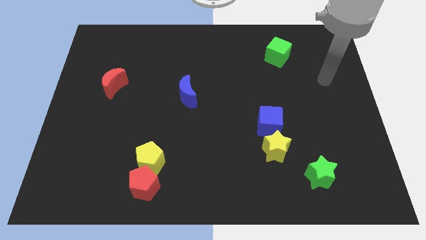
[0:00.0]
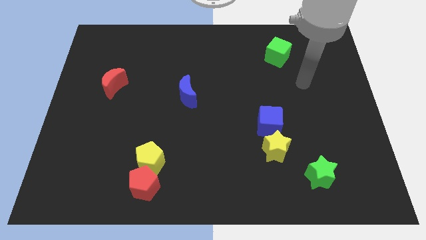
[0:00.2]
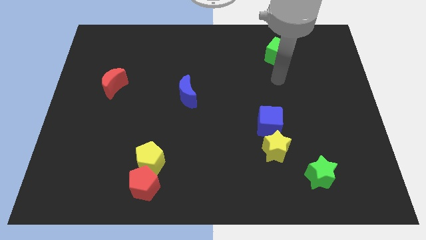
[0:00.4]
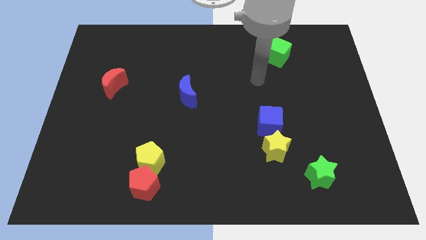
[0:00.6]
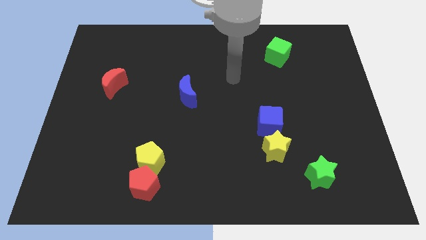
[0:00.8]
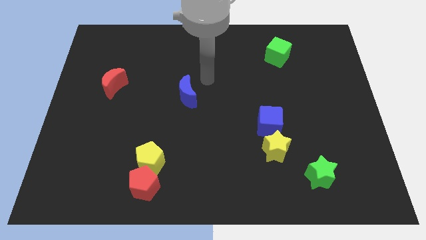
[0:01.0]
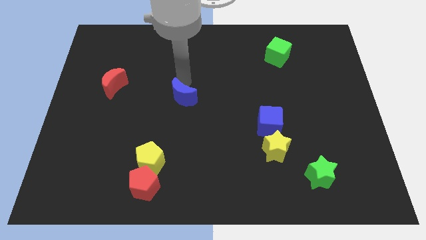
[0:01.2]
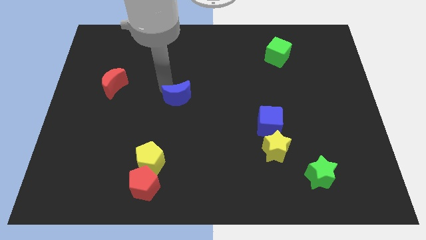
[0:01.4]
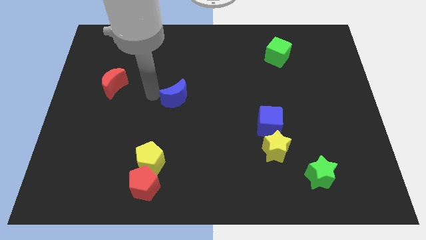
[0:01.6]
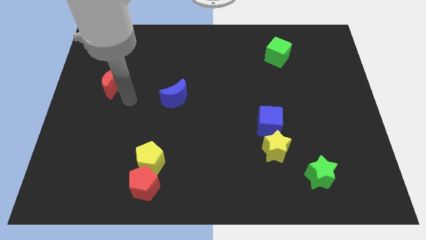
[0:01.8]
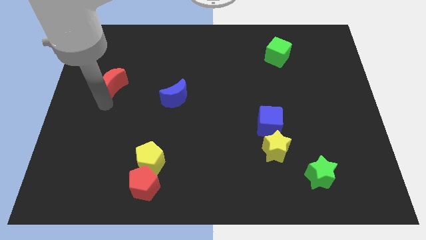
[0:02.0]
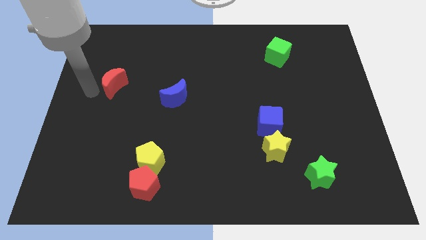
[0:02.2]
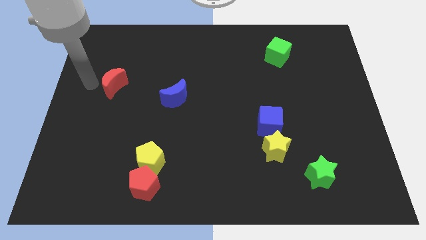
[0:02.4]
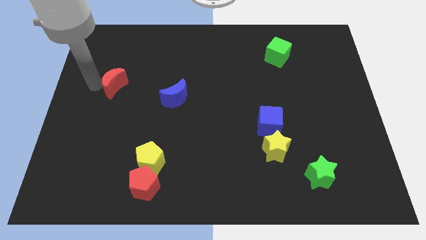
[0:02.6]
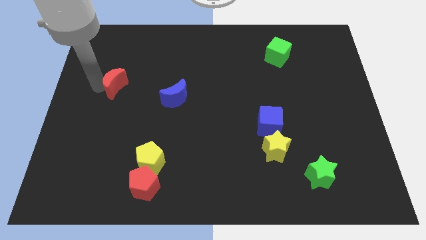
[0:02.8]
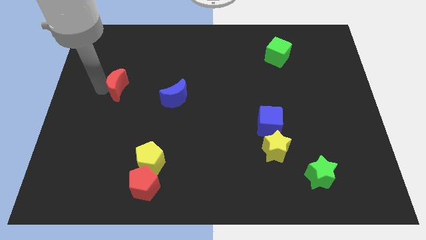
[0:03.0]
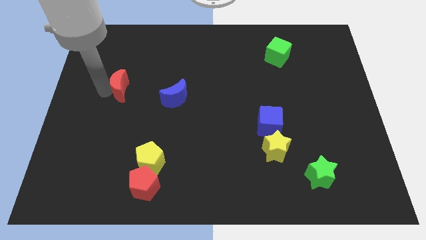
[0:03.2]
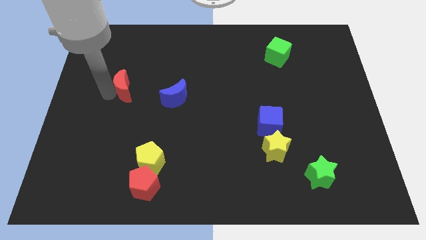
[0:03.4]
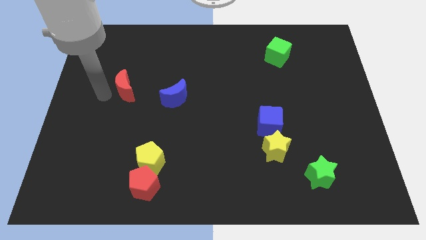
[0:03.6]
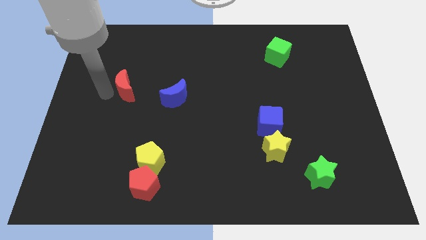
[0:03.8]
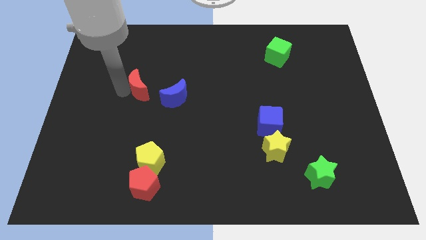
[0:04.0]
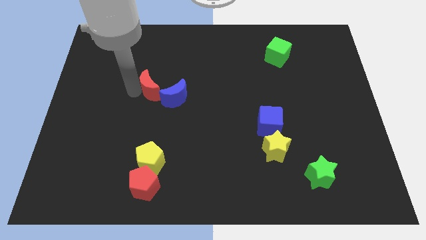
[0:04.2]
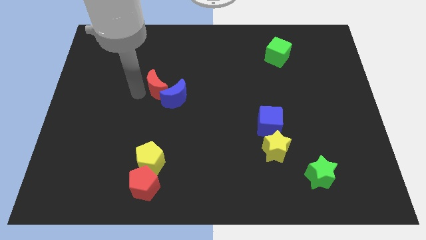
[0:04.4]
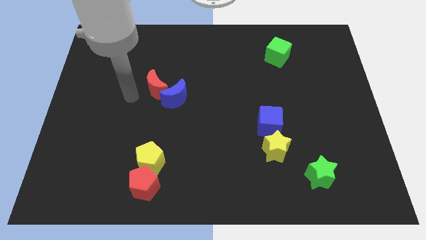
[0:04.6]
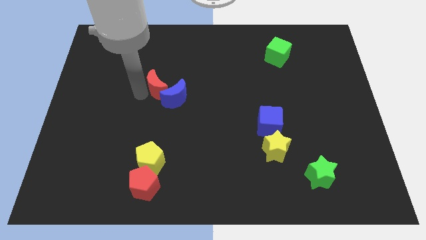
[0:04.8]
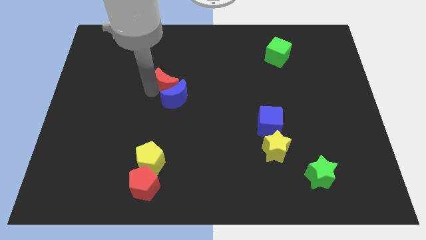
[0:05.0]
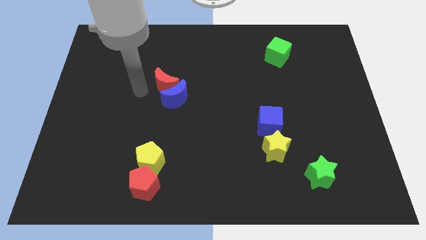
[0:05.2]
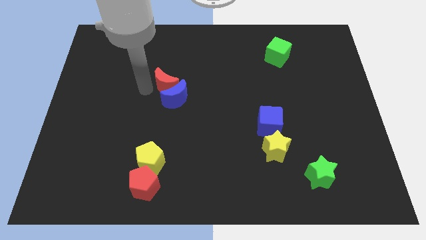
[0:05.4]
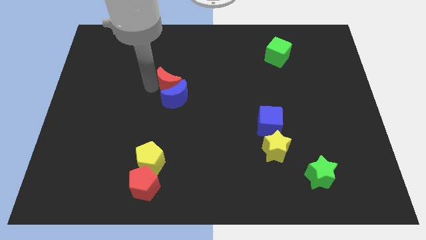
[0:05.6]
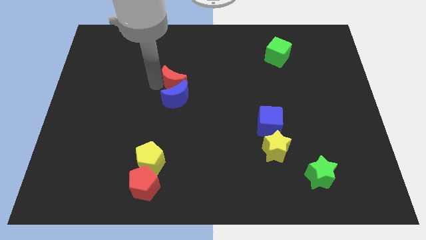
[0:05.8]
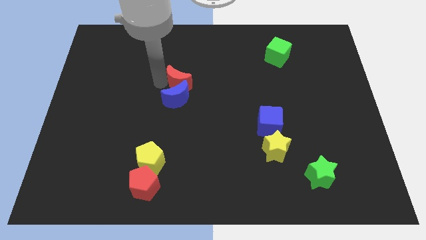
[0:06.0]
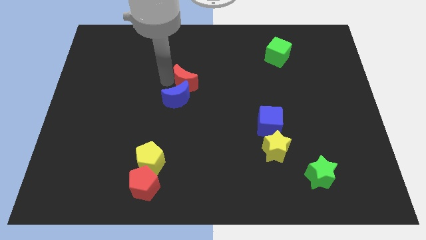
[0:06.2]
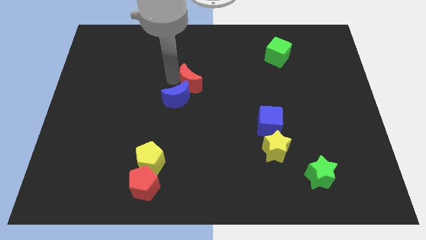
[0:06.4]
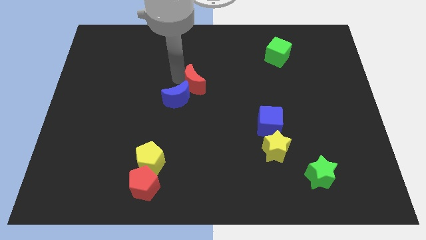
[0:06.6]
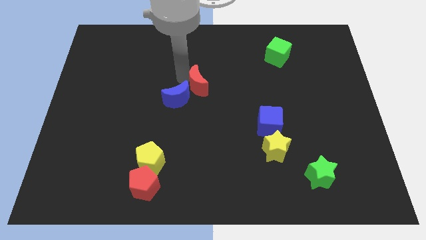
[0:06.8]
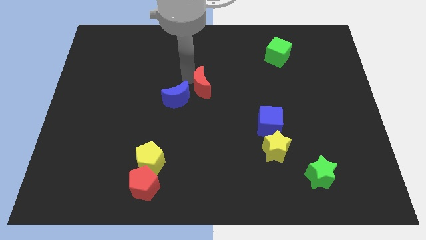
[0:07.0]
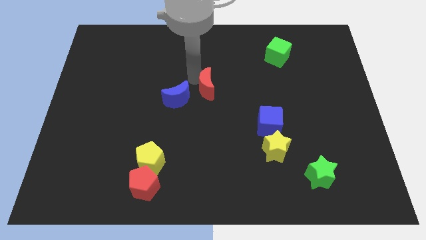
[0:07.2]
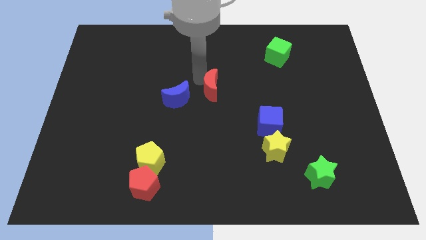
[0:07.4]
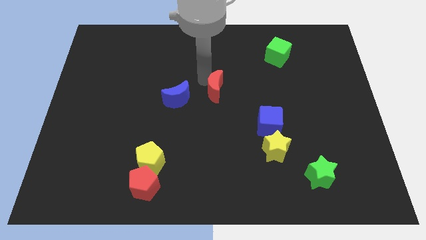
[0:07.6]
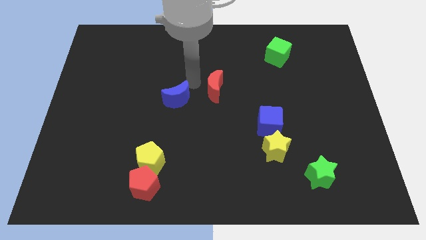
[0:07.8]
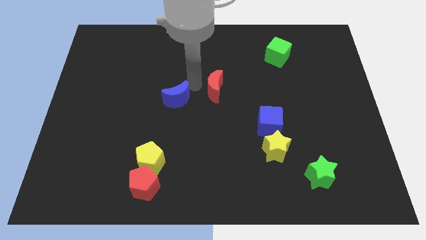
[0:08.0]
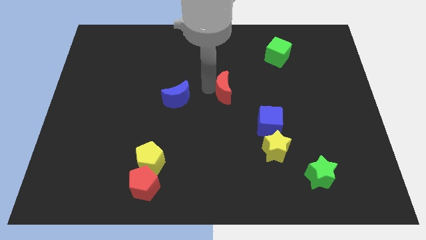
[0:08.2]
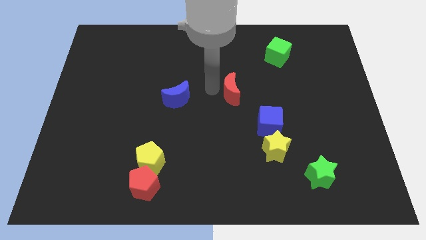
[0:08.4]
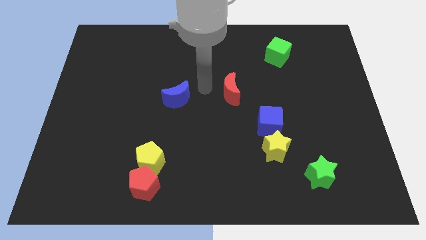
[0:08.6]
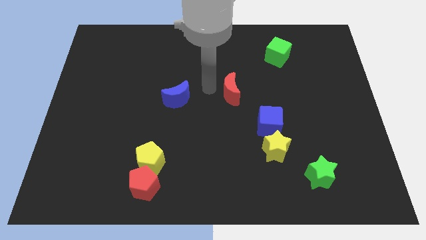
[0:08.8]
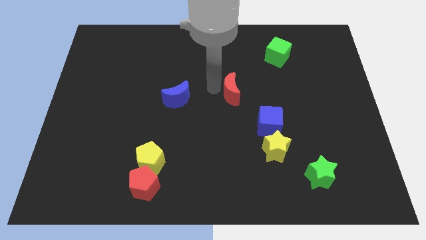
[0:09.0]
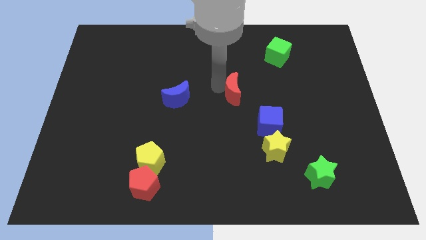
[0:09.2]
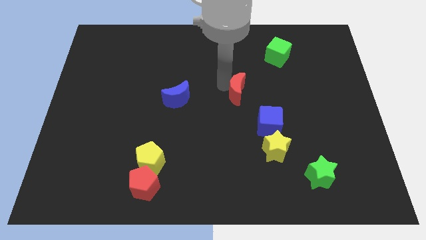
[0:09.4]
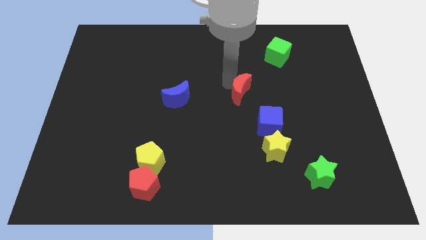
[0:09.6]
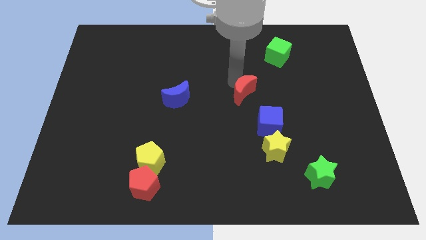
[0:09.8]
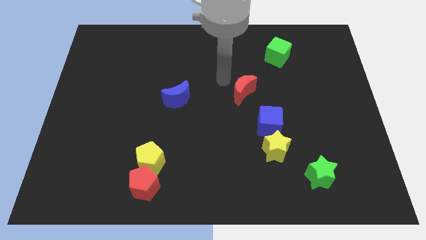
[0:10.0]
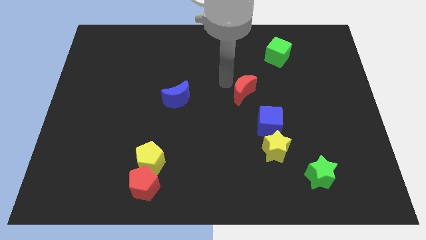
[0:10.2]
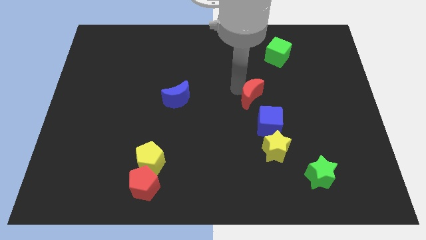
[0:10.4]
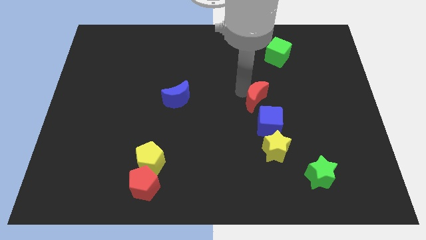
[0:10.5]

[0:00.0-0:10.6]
slide the red moon above the yellow star

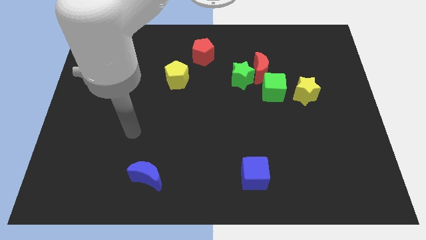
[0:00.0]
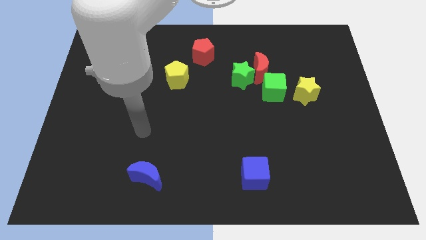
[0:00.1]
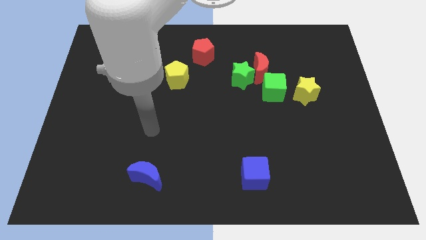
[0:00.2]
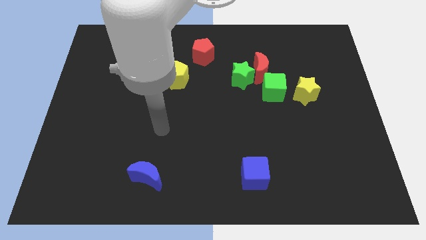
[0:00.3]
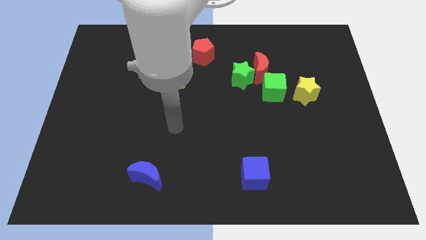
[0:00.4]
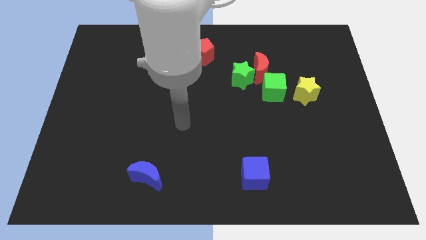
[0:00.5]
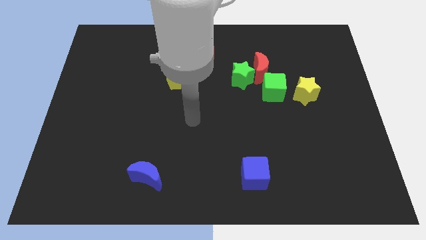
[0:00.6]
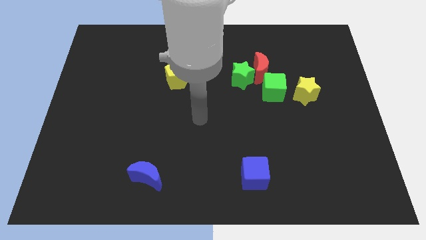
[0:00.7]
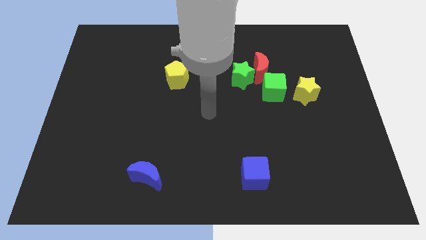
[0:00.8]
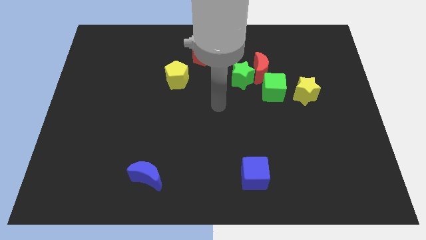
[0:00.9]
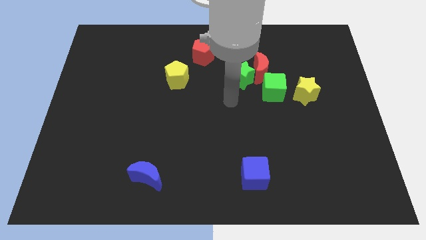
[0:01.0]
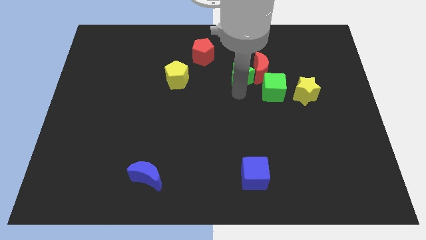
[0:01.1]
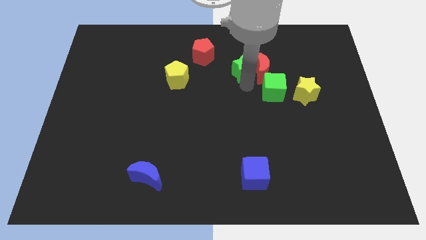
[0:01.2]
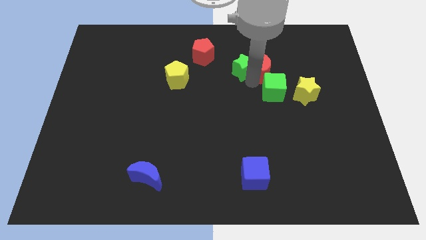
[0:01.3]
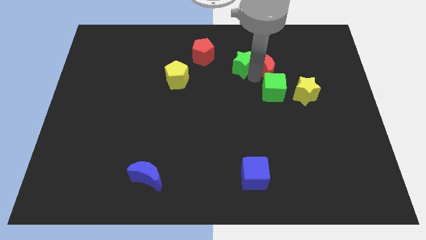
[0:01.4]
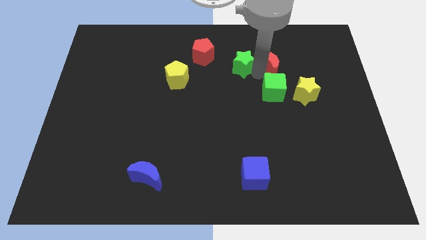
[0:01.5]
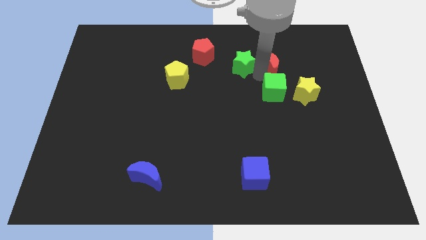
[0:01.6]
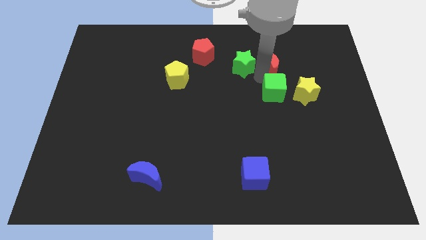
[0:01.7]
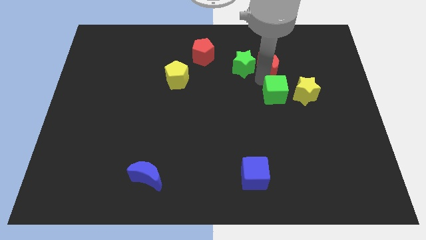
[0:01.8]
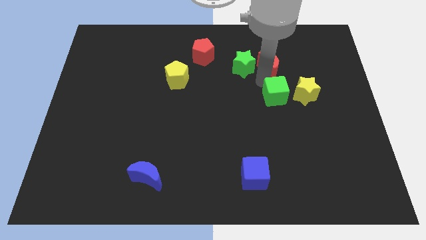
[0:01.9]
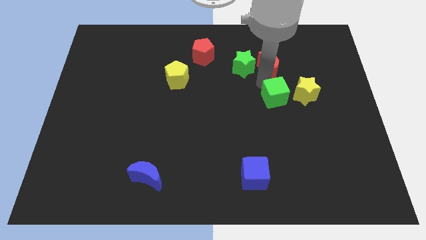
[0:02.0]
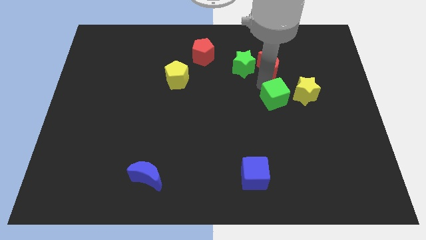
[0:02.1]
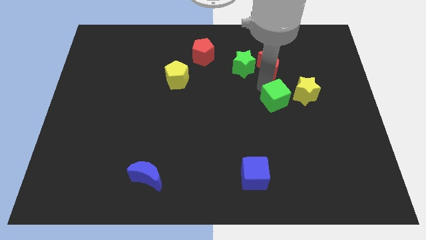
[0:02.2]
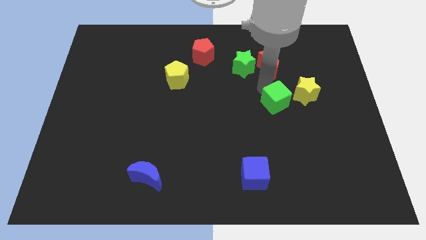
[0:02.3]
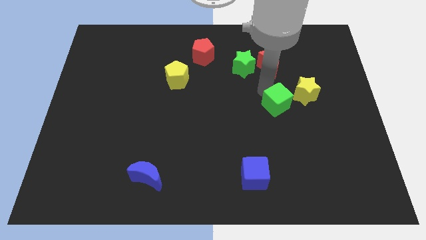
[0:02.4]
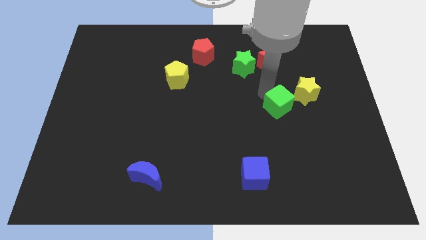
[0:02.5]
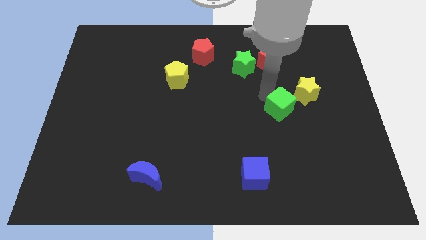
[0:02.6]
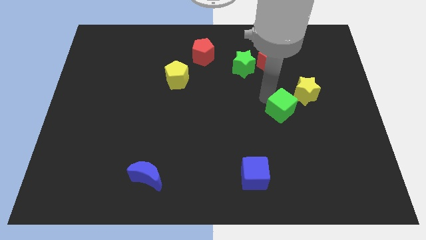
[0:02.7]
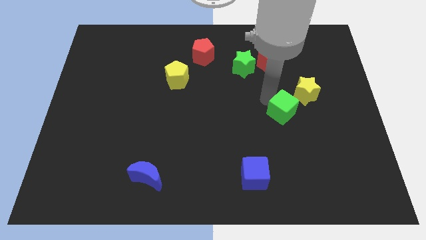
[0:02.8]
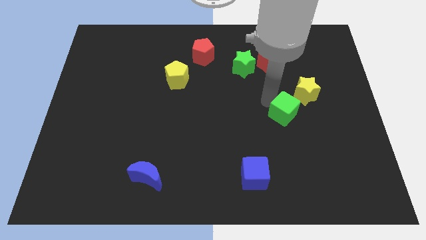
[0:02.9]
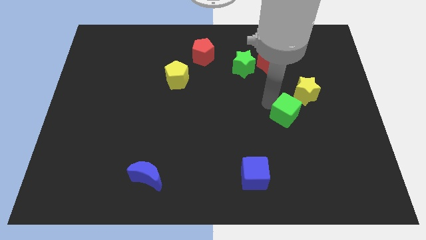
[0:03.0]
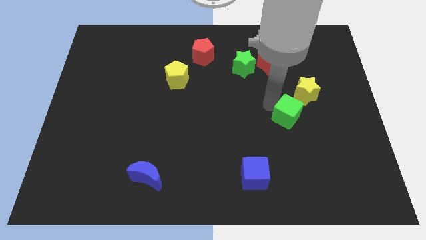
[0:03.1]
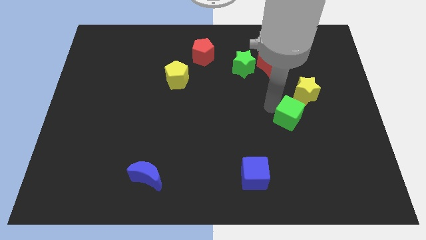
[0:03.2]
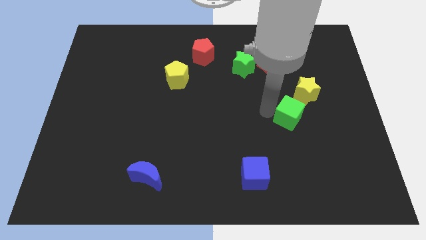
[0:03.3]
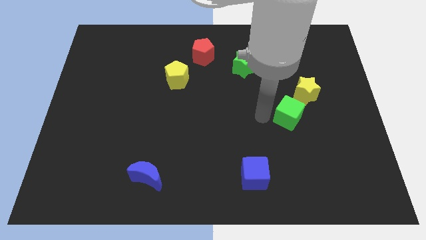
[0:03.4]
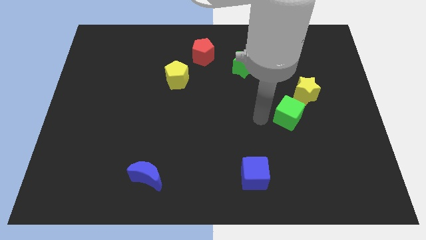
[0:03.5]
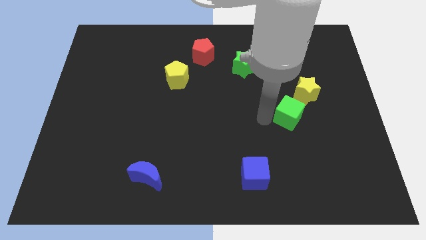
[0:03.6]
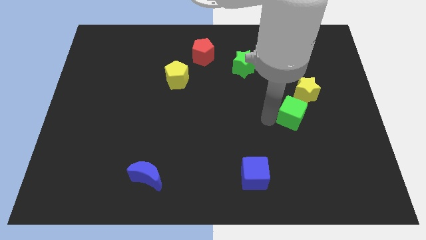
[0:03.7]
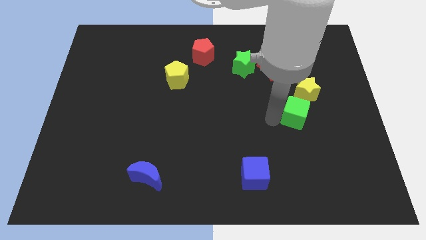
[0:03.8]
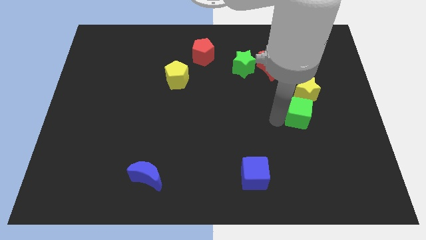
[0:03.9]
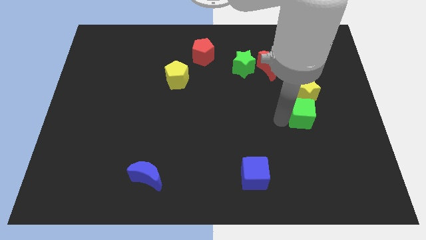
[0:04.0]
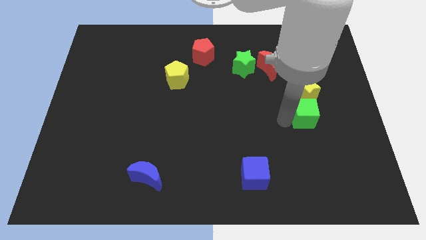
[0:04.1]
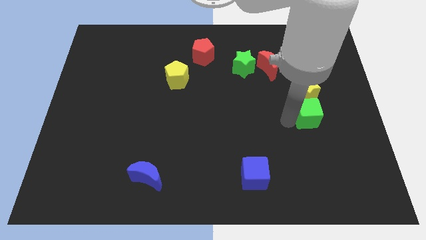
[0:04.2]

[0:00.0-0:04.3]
move the green cube diagonally down and to the right of the yellow star
